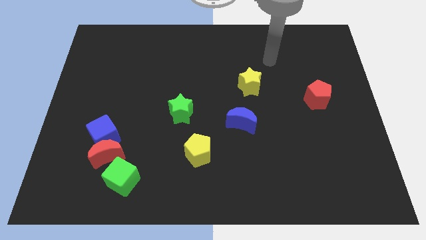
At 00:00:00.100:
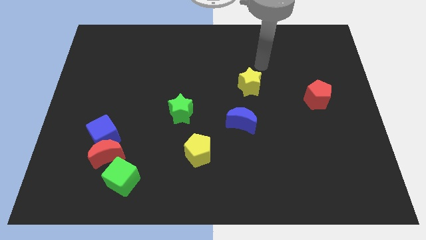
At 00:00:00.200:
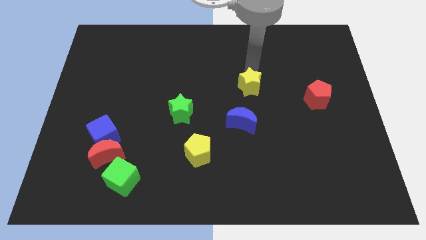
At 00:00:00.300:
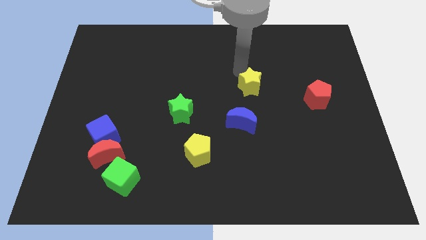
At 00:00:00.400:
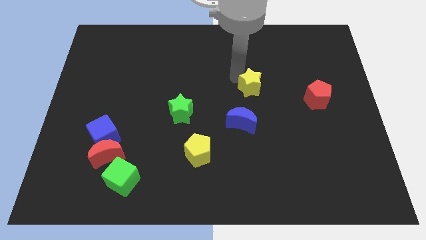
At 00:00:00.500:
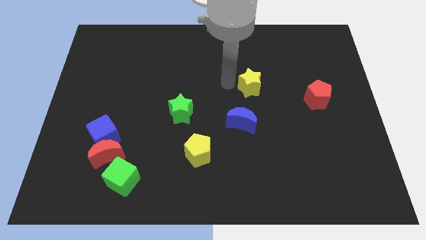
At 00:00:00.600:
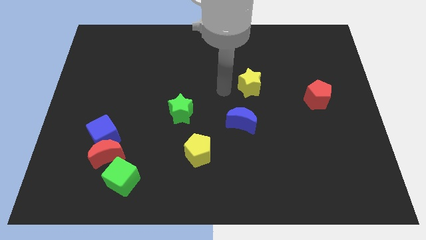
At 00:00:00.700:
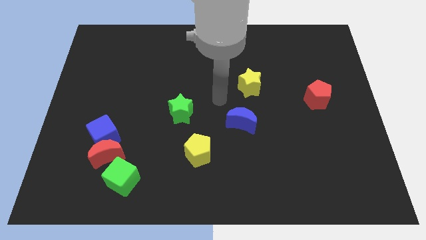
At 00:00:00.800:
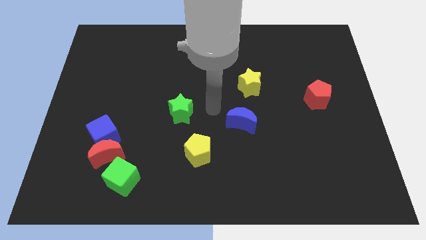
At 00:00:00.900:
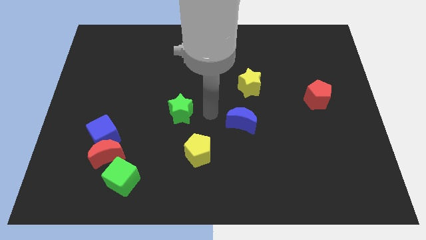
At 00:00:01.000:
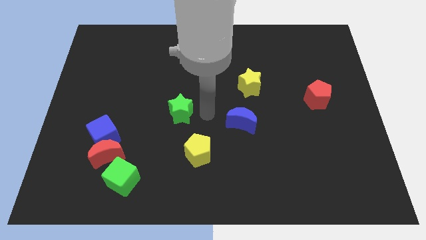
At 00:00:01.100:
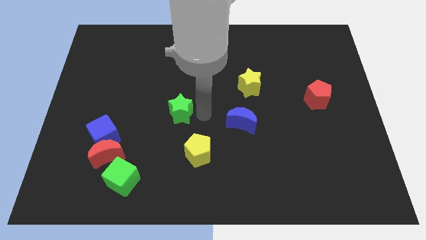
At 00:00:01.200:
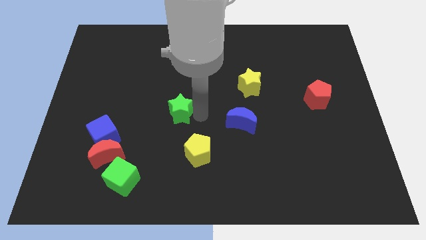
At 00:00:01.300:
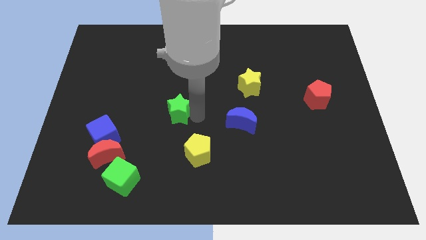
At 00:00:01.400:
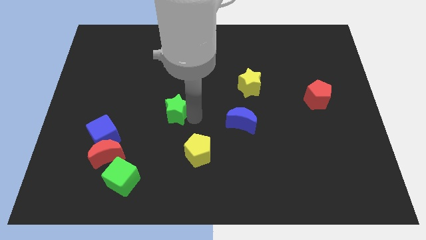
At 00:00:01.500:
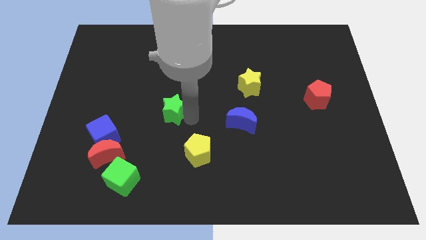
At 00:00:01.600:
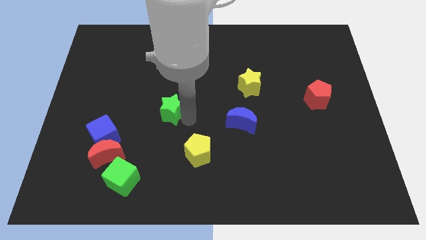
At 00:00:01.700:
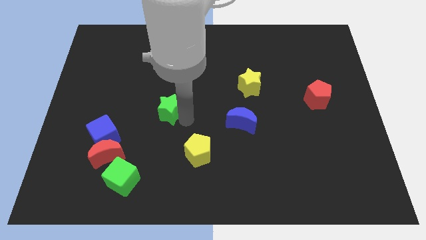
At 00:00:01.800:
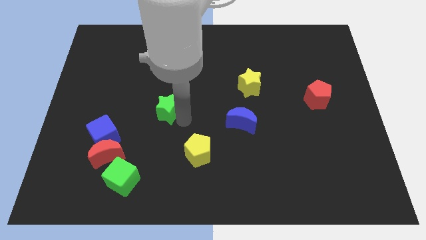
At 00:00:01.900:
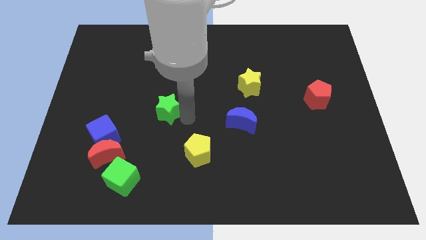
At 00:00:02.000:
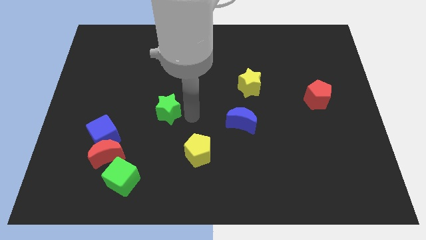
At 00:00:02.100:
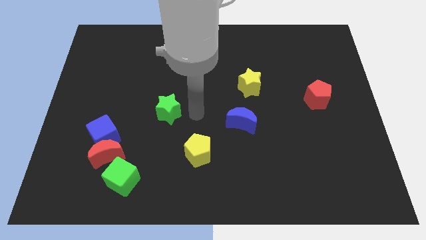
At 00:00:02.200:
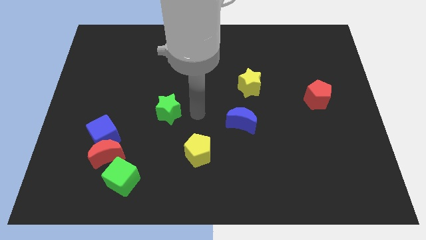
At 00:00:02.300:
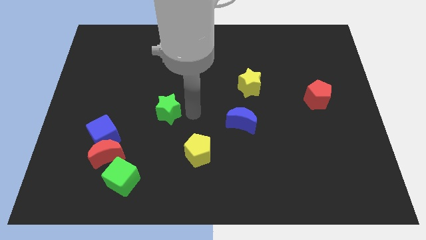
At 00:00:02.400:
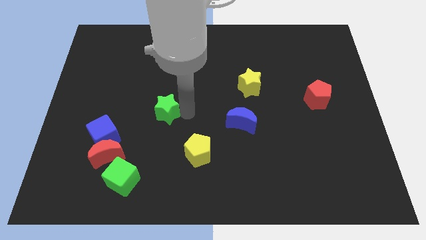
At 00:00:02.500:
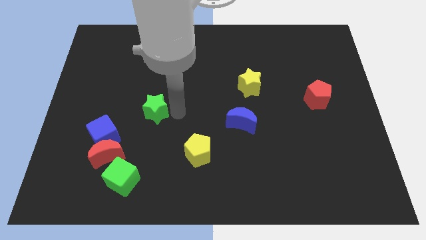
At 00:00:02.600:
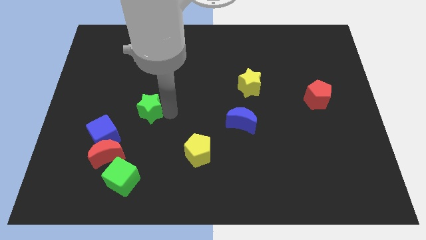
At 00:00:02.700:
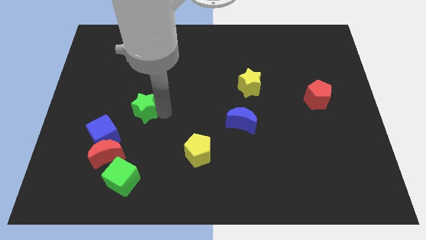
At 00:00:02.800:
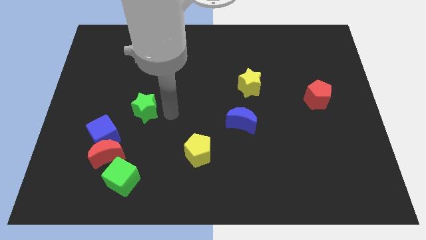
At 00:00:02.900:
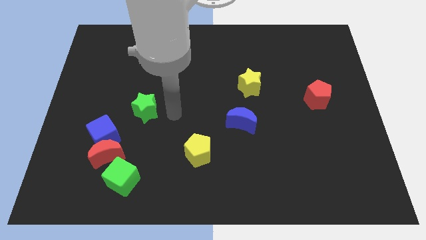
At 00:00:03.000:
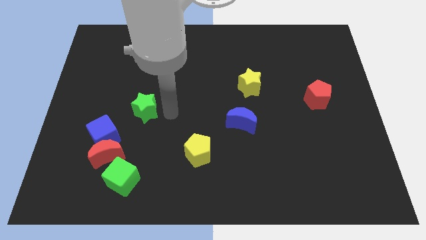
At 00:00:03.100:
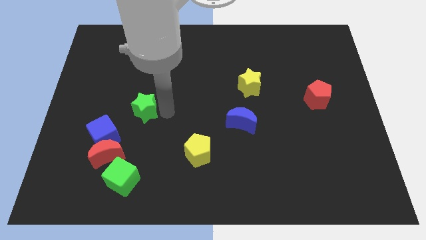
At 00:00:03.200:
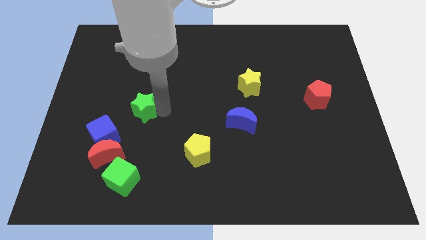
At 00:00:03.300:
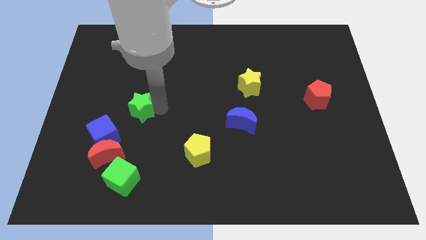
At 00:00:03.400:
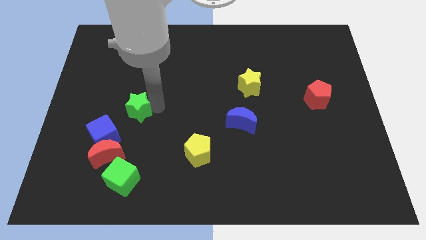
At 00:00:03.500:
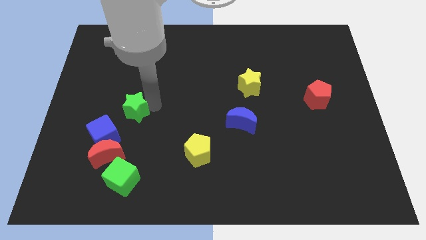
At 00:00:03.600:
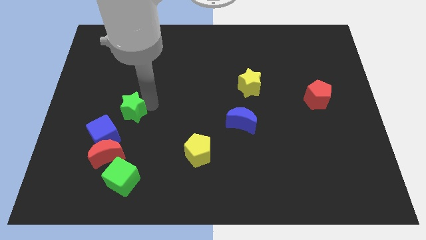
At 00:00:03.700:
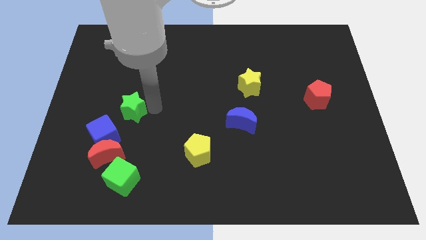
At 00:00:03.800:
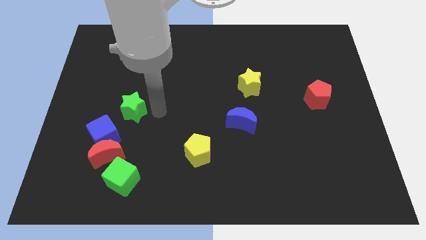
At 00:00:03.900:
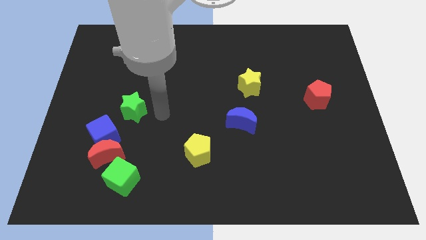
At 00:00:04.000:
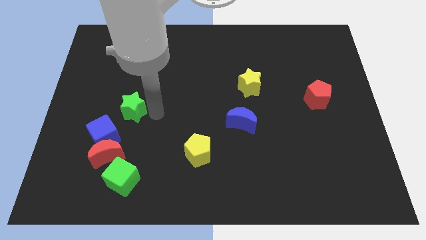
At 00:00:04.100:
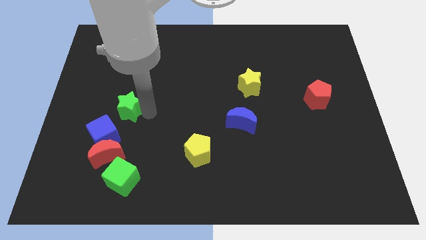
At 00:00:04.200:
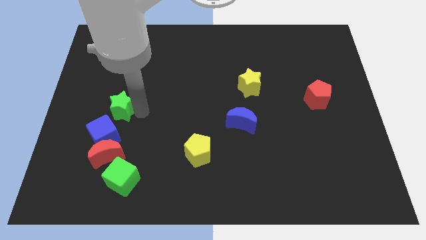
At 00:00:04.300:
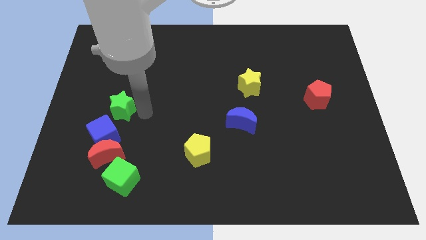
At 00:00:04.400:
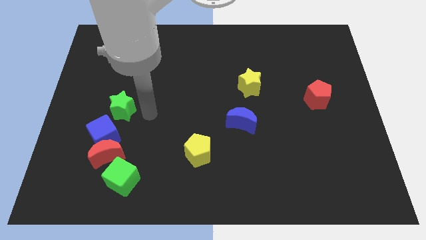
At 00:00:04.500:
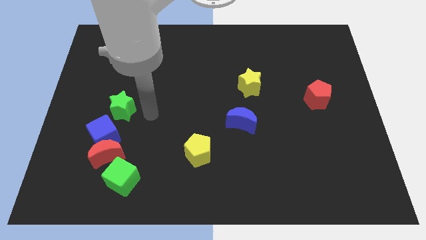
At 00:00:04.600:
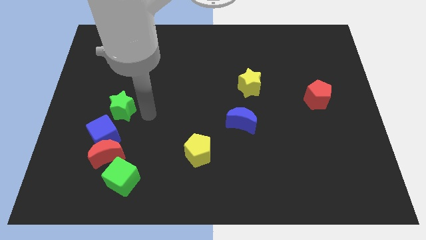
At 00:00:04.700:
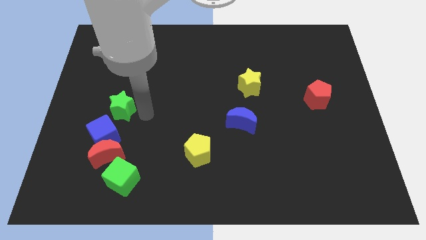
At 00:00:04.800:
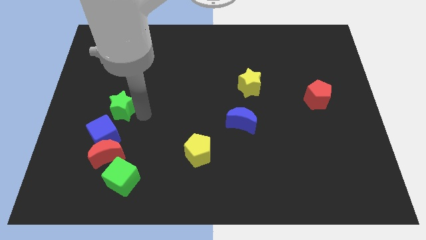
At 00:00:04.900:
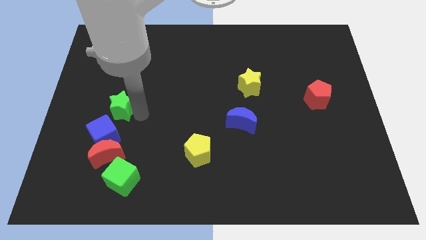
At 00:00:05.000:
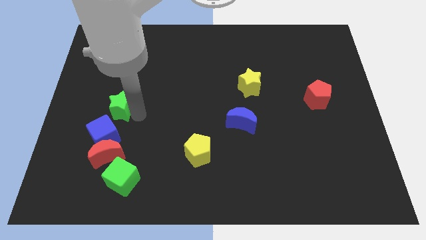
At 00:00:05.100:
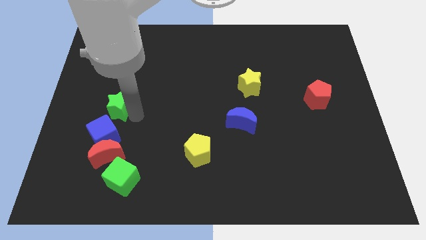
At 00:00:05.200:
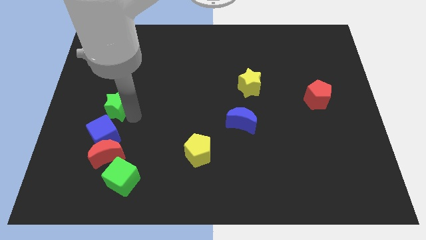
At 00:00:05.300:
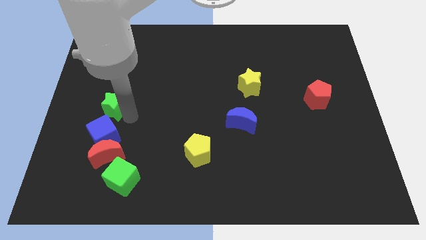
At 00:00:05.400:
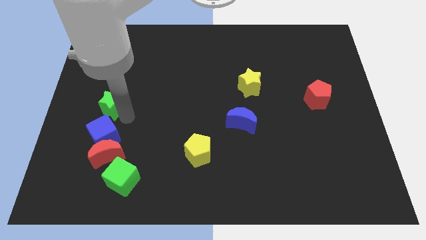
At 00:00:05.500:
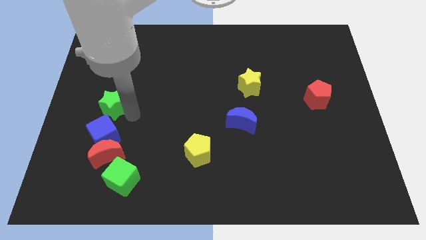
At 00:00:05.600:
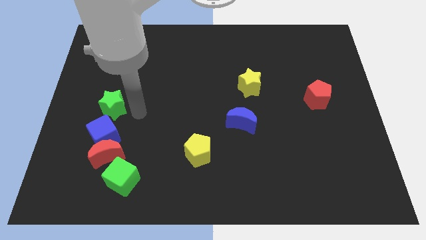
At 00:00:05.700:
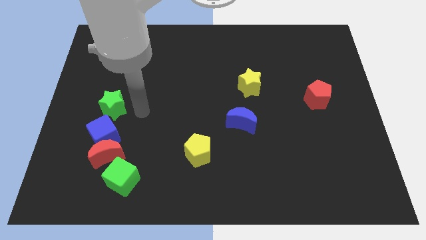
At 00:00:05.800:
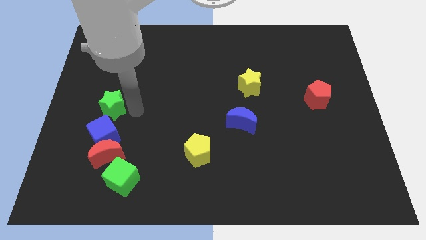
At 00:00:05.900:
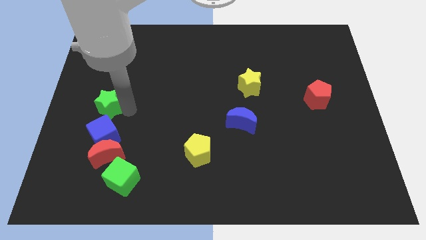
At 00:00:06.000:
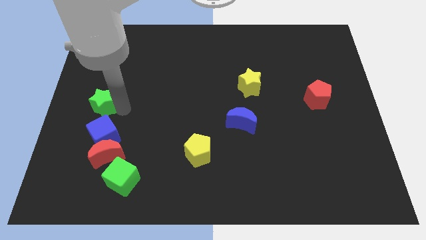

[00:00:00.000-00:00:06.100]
push the green star to the left side of the board
